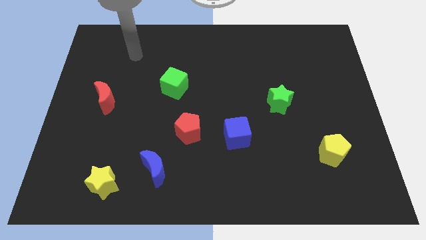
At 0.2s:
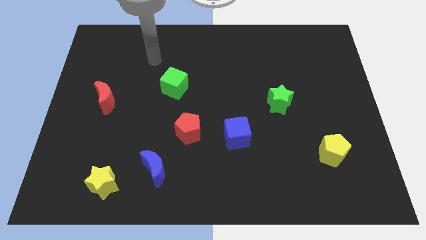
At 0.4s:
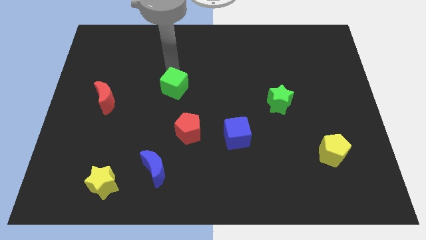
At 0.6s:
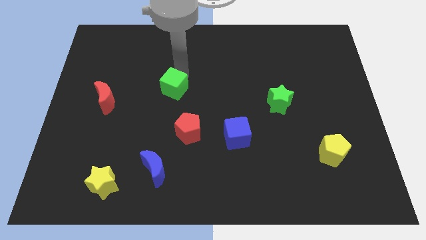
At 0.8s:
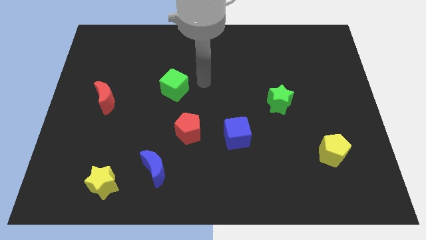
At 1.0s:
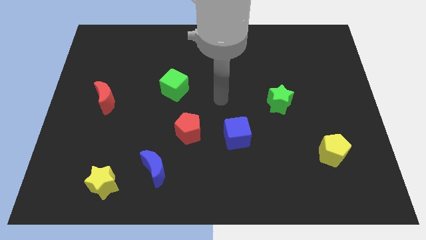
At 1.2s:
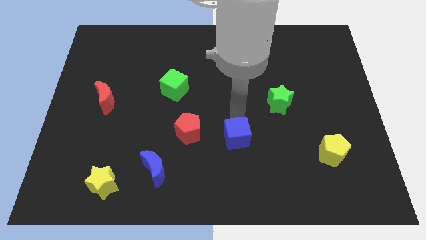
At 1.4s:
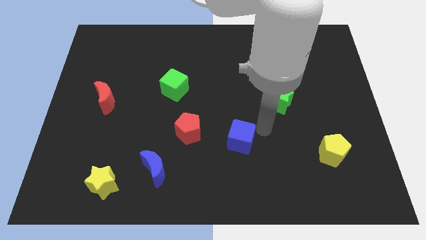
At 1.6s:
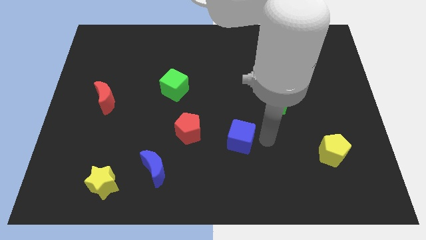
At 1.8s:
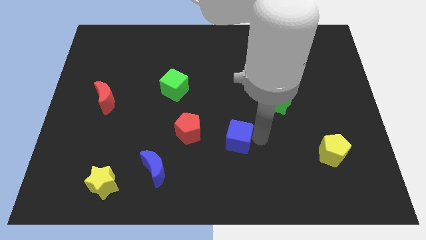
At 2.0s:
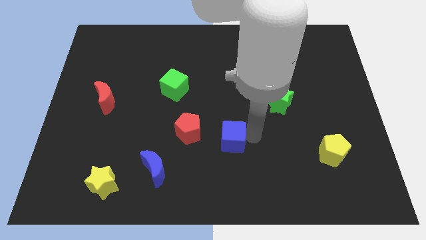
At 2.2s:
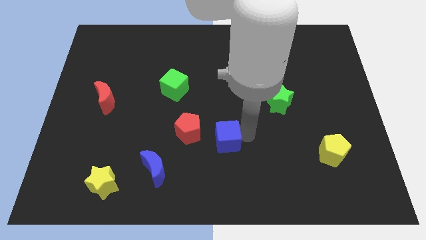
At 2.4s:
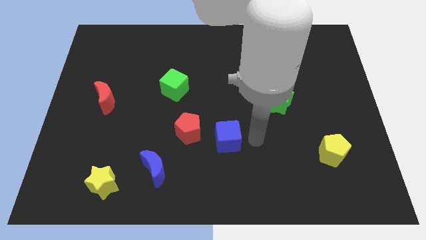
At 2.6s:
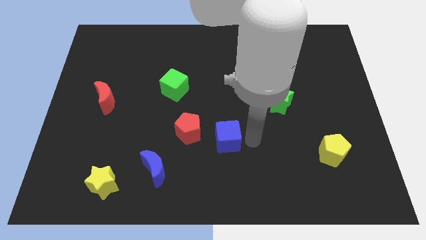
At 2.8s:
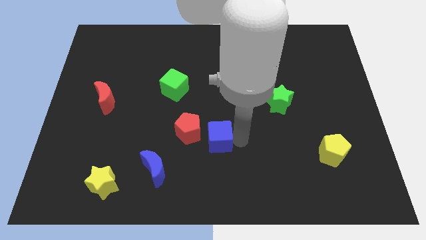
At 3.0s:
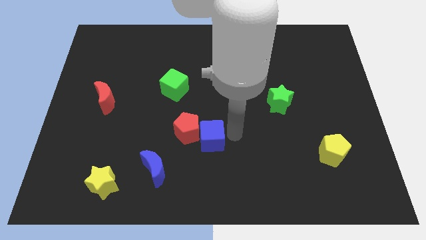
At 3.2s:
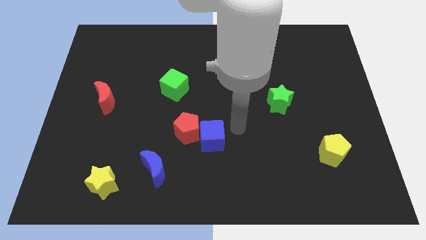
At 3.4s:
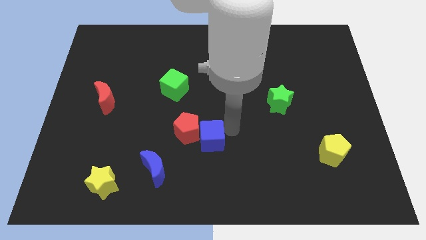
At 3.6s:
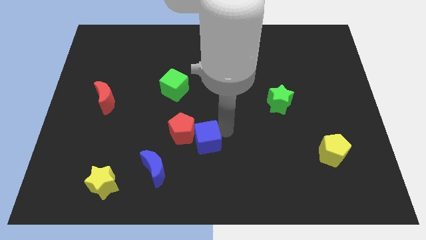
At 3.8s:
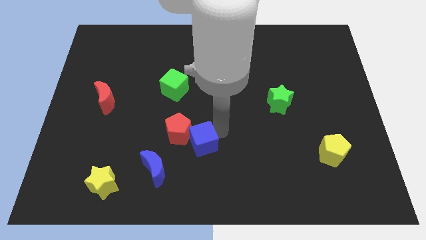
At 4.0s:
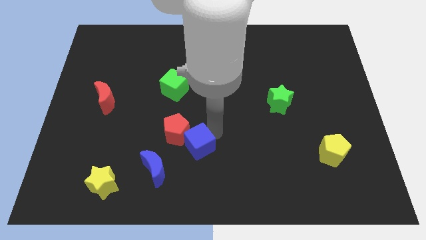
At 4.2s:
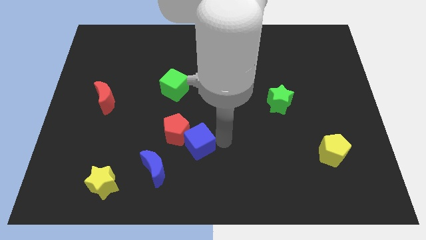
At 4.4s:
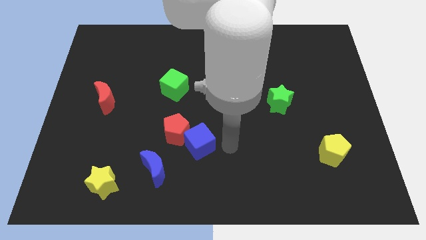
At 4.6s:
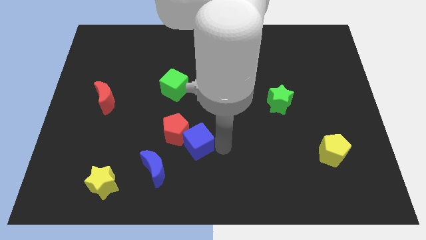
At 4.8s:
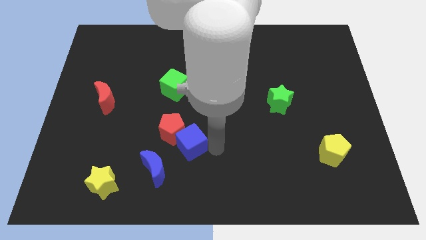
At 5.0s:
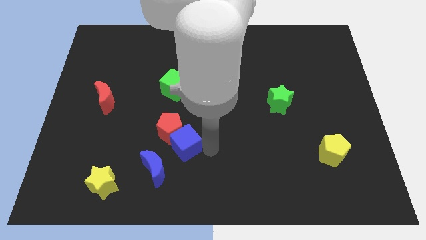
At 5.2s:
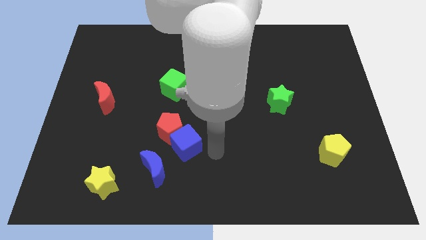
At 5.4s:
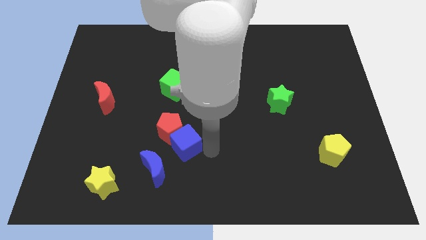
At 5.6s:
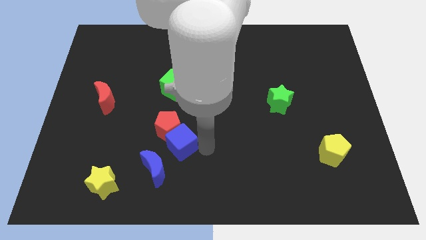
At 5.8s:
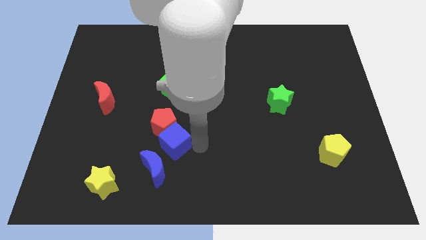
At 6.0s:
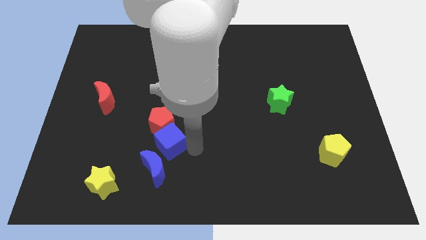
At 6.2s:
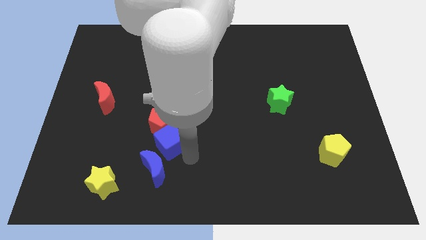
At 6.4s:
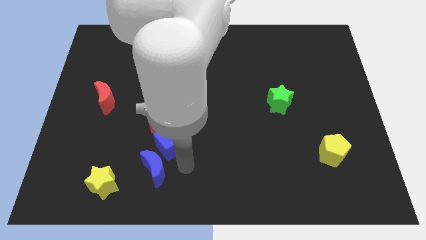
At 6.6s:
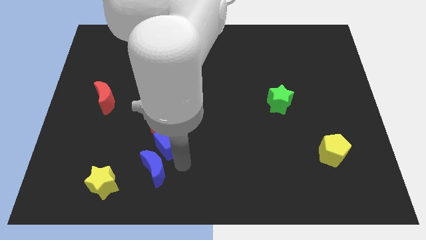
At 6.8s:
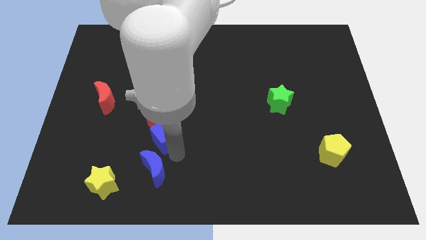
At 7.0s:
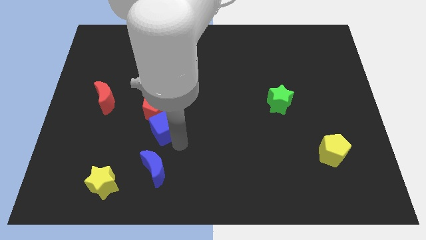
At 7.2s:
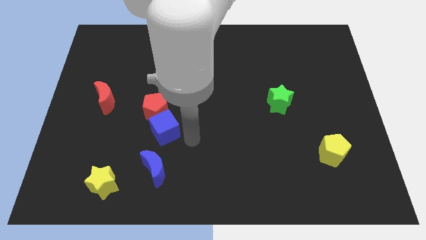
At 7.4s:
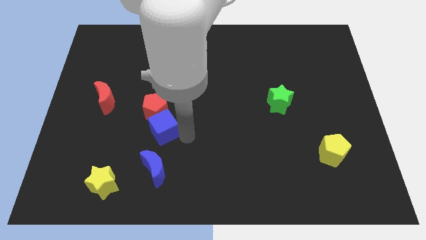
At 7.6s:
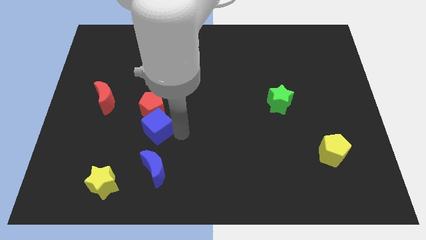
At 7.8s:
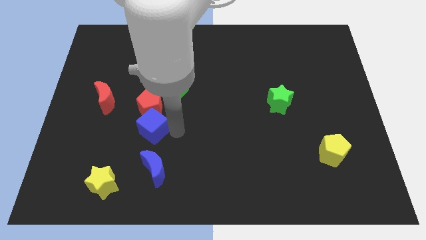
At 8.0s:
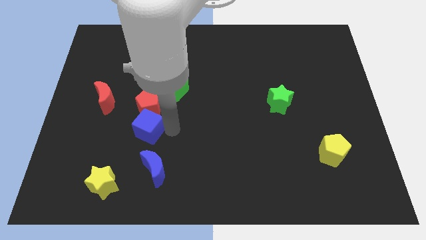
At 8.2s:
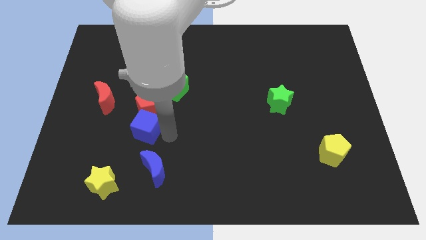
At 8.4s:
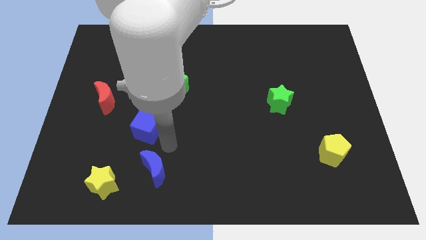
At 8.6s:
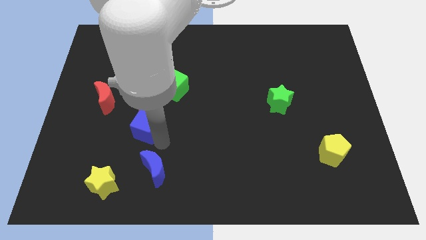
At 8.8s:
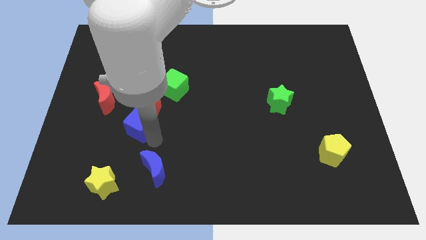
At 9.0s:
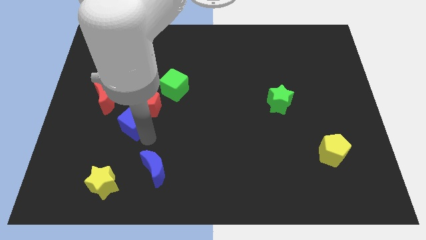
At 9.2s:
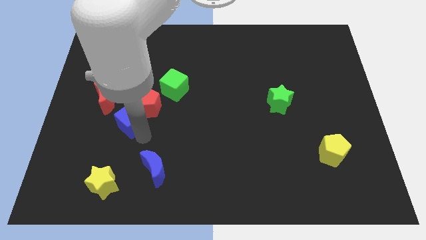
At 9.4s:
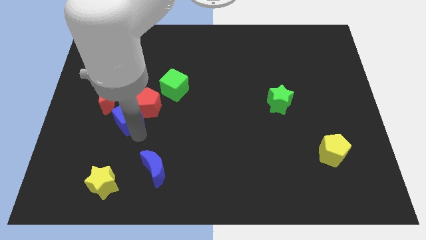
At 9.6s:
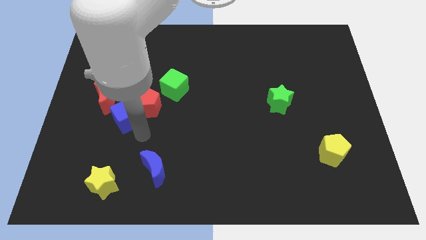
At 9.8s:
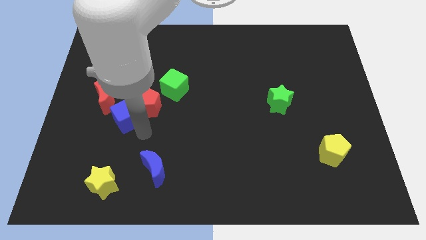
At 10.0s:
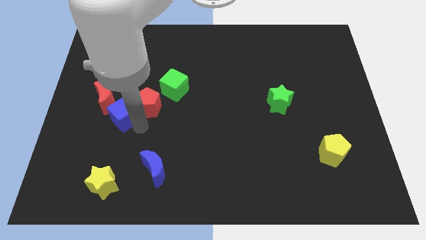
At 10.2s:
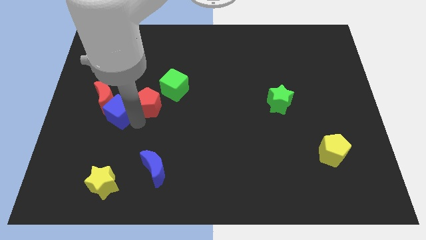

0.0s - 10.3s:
push the blue cube next to the red moon

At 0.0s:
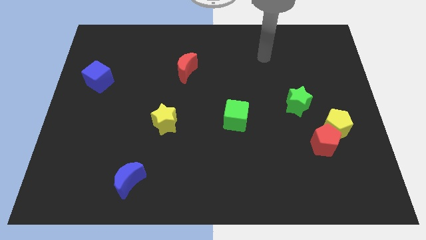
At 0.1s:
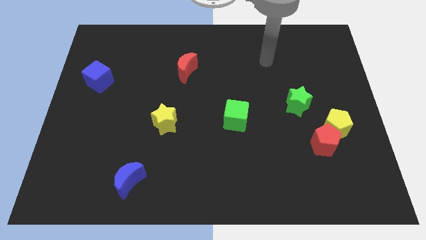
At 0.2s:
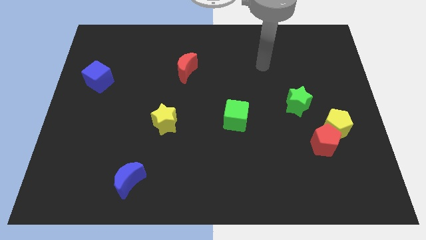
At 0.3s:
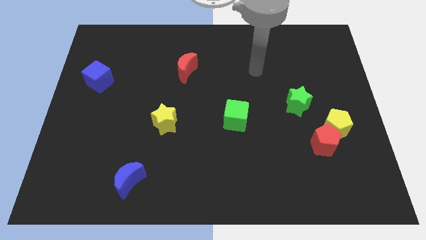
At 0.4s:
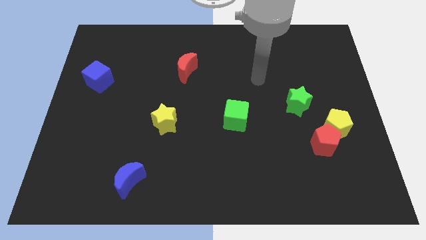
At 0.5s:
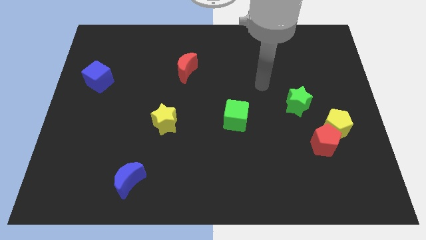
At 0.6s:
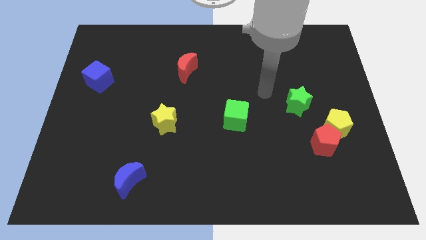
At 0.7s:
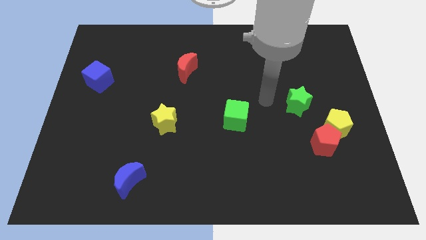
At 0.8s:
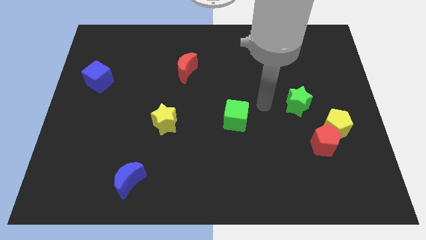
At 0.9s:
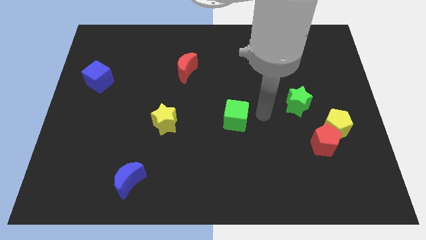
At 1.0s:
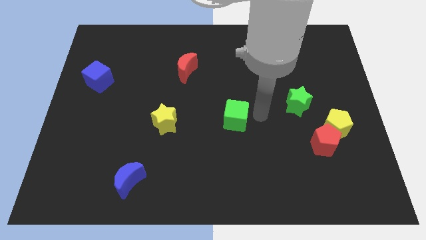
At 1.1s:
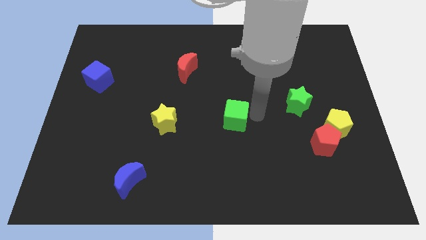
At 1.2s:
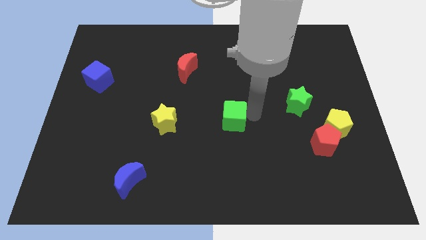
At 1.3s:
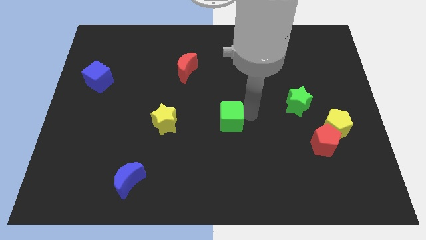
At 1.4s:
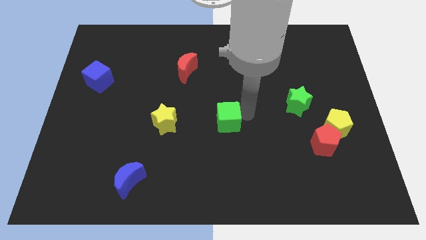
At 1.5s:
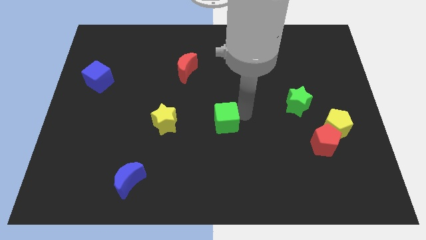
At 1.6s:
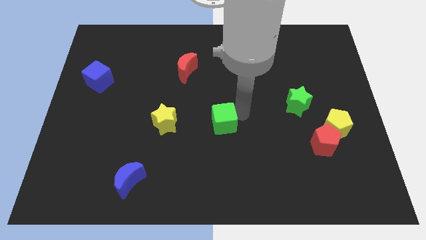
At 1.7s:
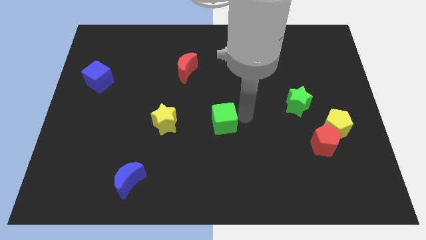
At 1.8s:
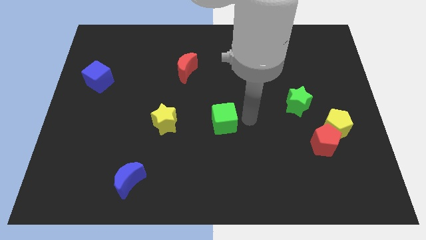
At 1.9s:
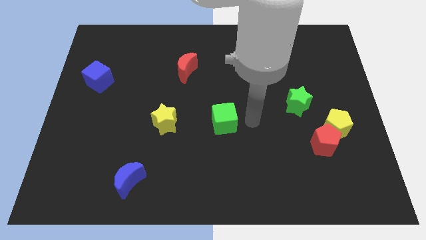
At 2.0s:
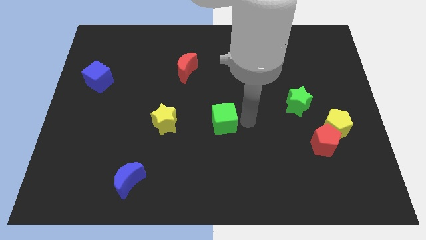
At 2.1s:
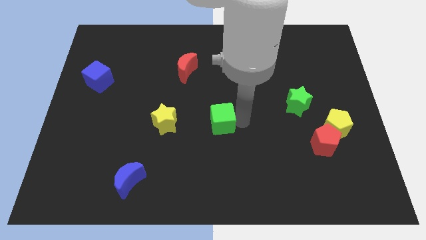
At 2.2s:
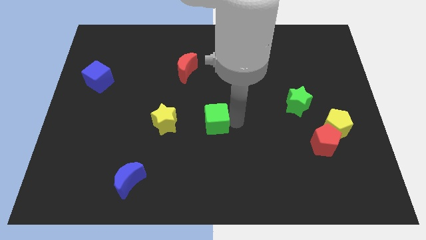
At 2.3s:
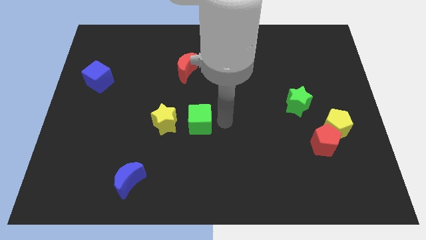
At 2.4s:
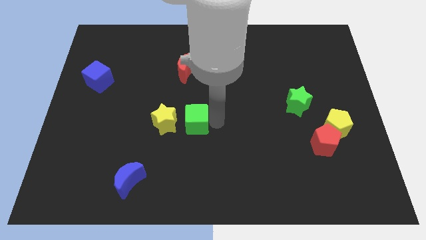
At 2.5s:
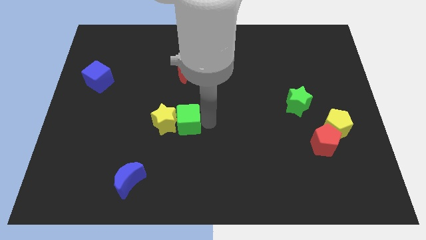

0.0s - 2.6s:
slide the green cube towards the yellow star
